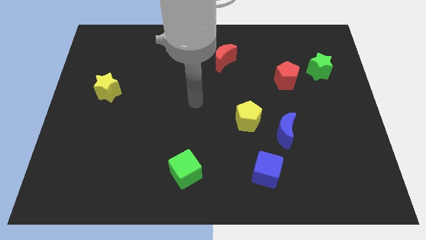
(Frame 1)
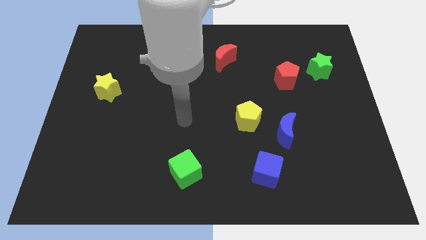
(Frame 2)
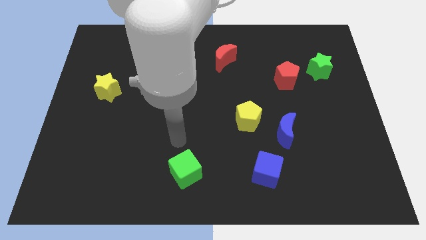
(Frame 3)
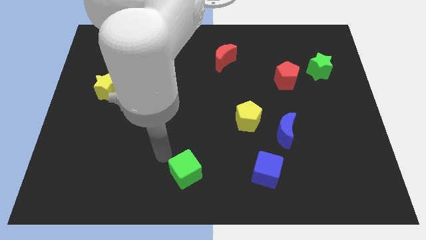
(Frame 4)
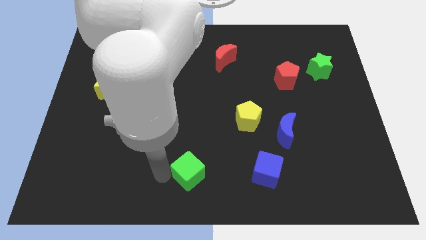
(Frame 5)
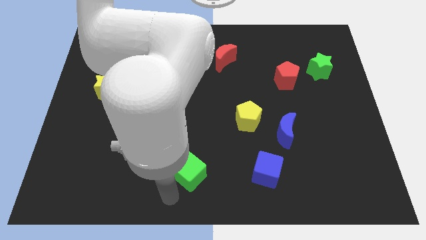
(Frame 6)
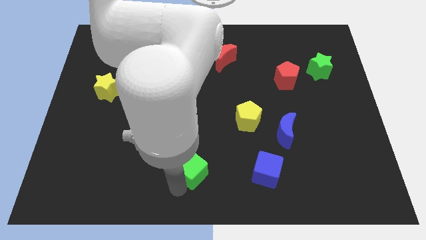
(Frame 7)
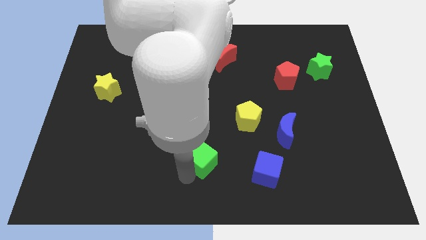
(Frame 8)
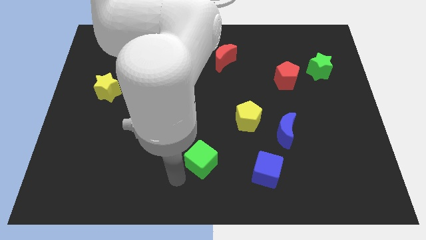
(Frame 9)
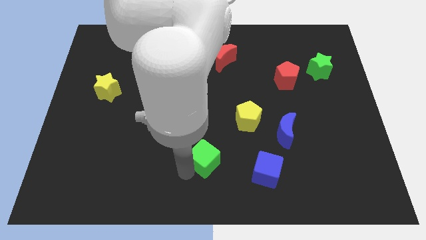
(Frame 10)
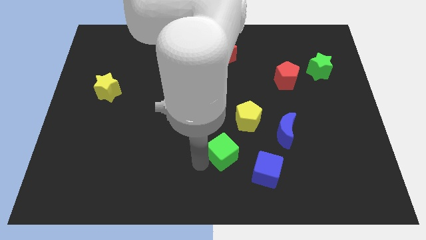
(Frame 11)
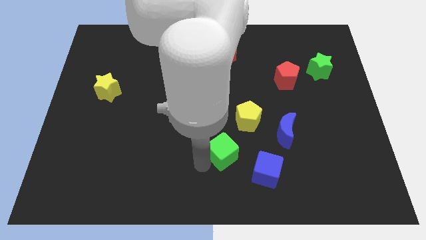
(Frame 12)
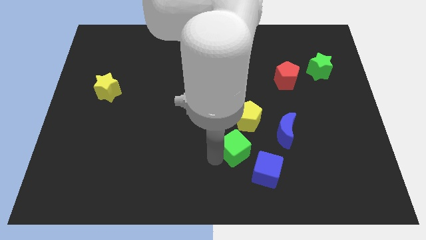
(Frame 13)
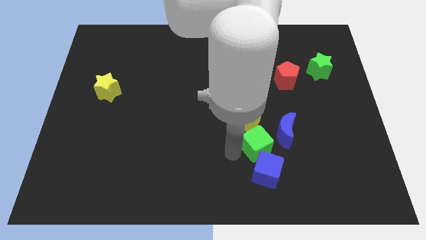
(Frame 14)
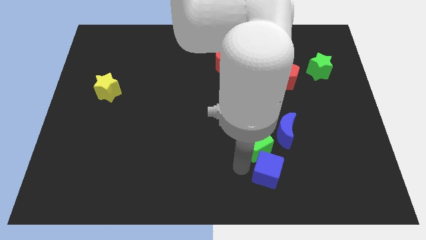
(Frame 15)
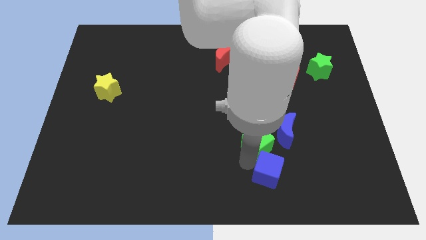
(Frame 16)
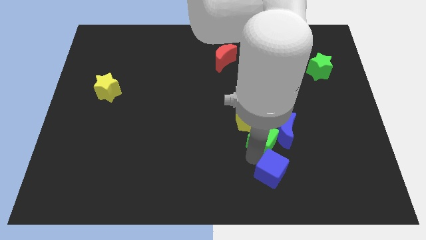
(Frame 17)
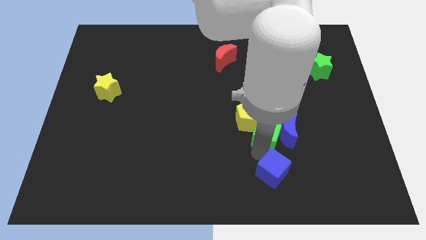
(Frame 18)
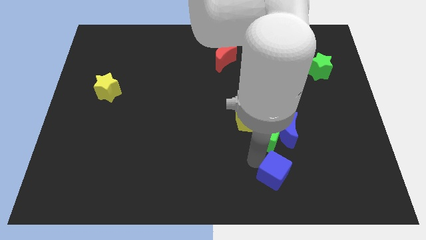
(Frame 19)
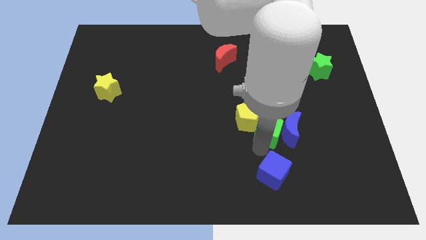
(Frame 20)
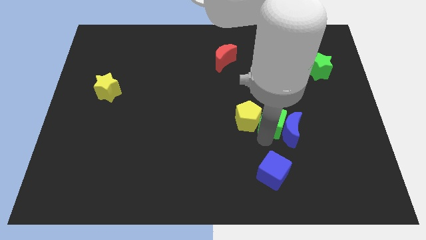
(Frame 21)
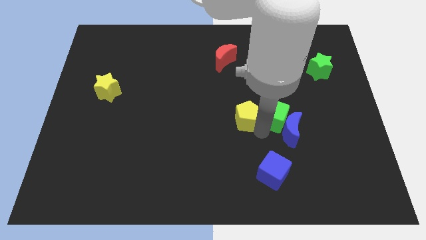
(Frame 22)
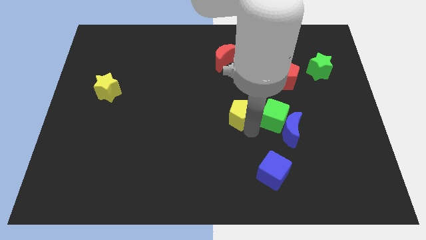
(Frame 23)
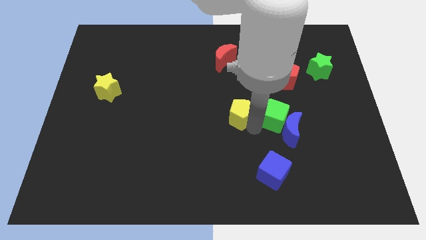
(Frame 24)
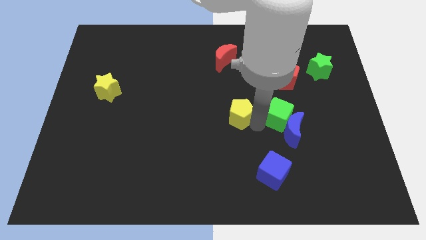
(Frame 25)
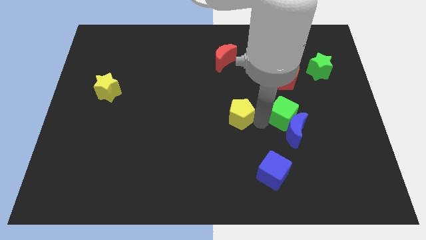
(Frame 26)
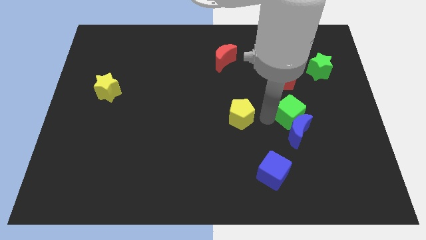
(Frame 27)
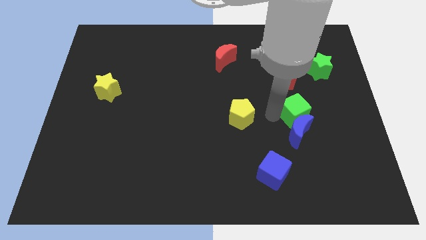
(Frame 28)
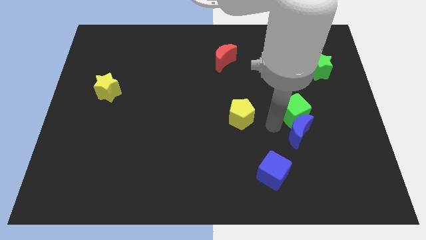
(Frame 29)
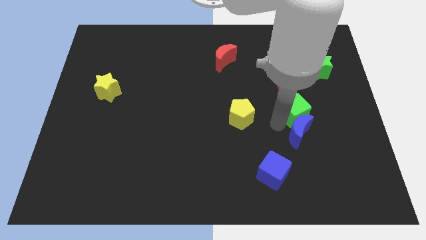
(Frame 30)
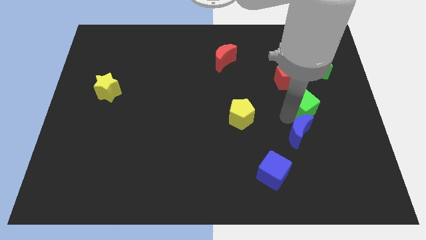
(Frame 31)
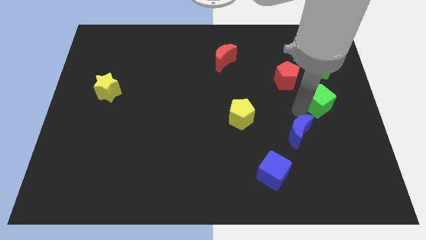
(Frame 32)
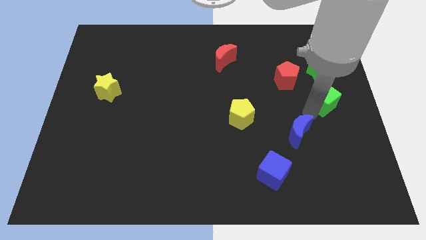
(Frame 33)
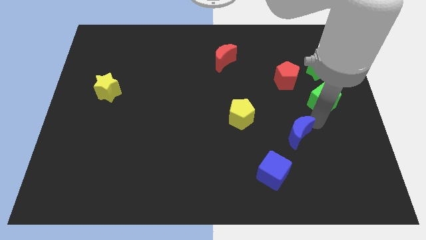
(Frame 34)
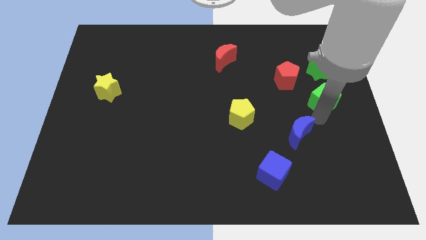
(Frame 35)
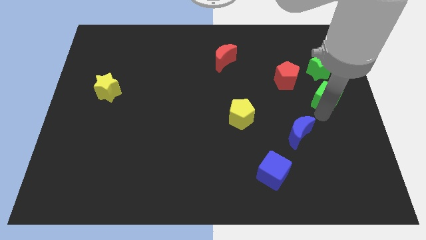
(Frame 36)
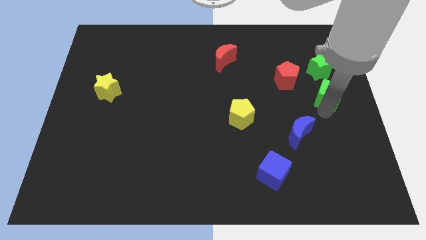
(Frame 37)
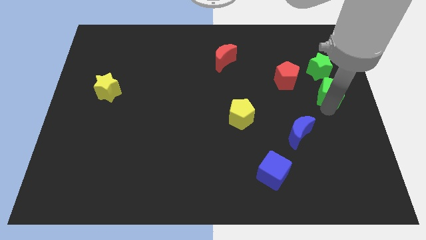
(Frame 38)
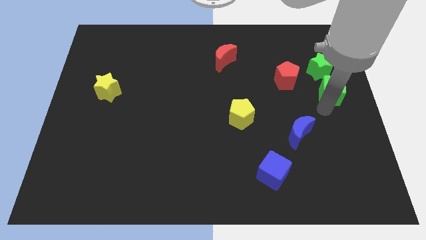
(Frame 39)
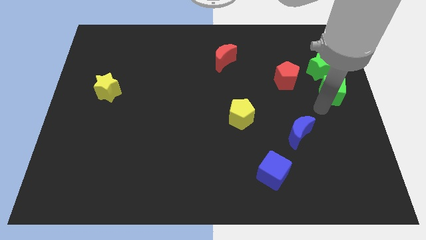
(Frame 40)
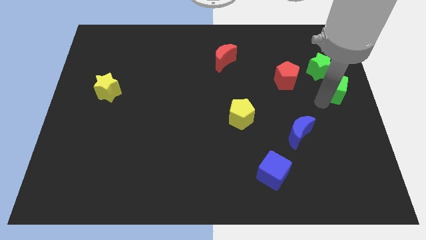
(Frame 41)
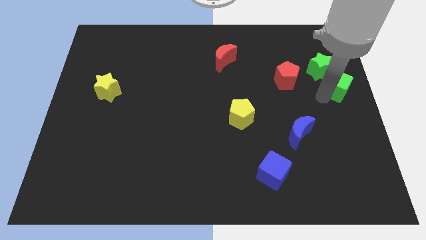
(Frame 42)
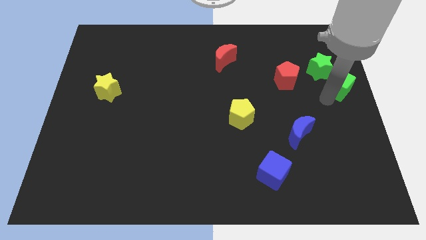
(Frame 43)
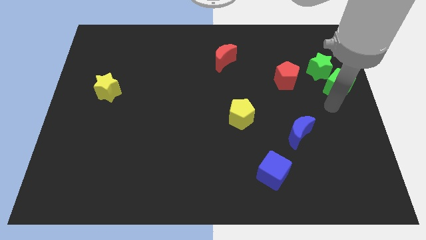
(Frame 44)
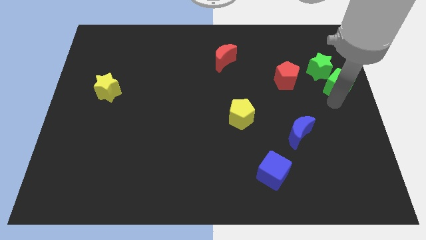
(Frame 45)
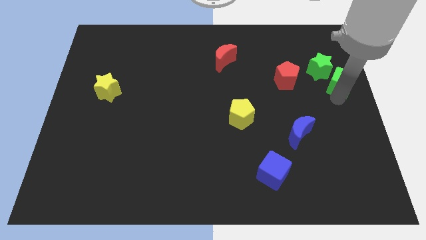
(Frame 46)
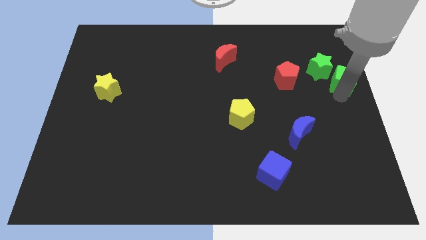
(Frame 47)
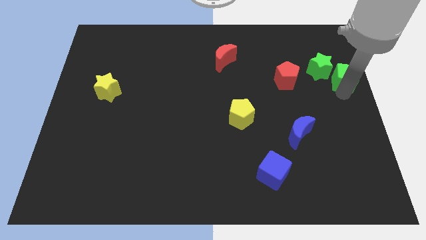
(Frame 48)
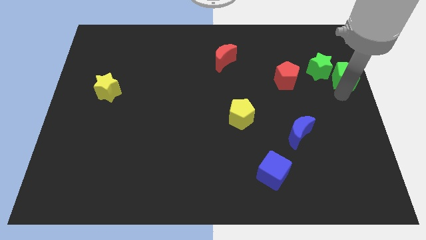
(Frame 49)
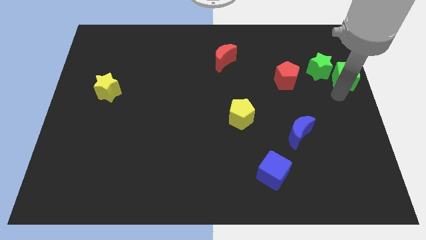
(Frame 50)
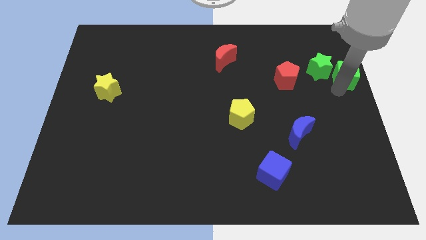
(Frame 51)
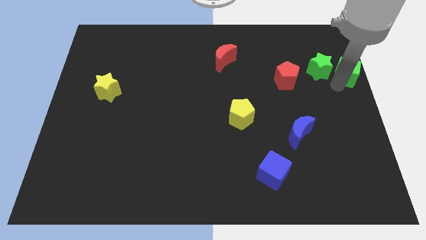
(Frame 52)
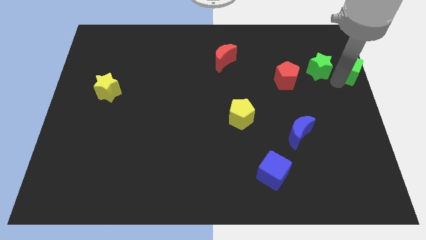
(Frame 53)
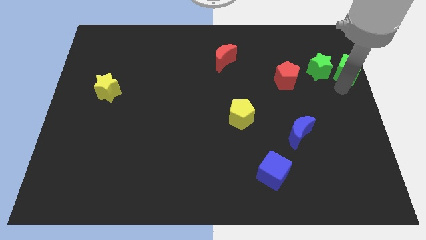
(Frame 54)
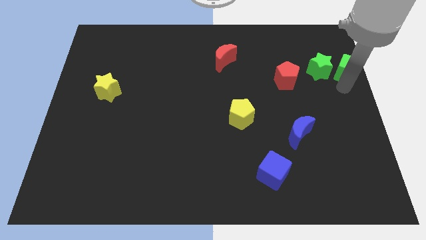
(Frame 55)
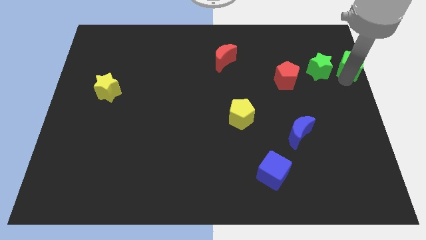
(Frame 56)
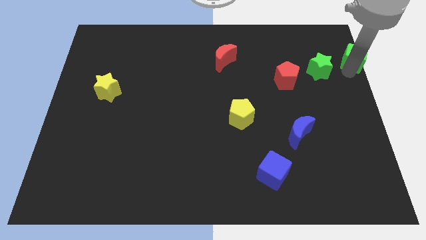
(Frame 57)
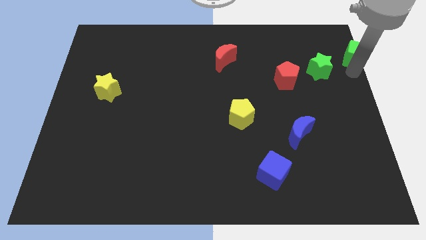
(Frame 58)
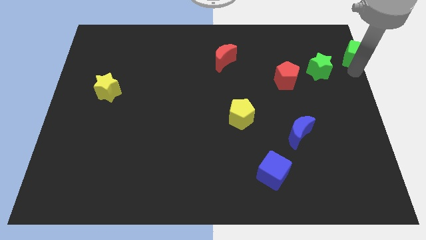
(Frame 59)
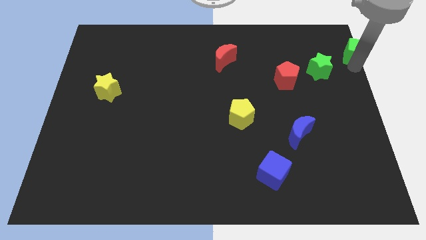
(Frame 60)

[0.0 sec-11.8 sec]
put the green cube to the upper right corner
